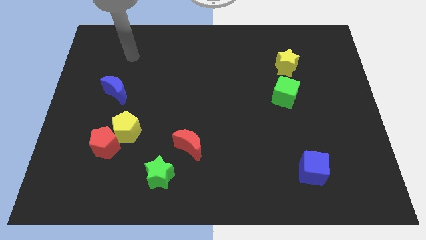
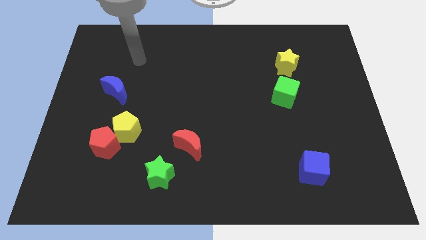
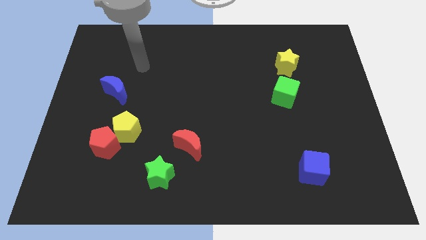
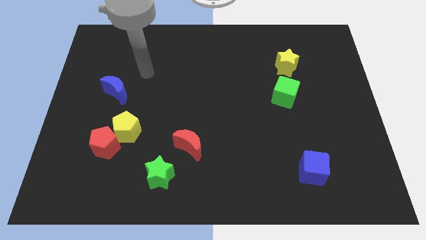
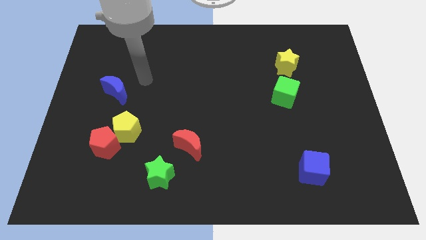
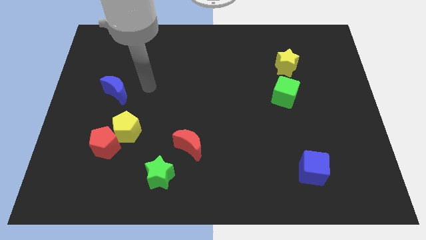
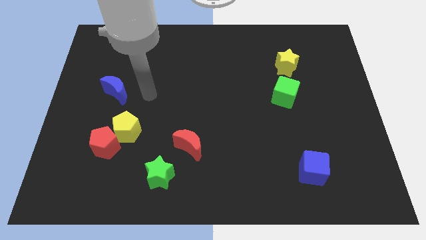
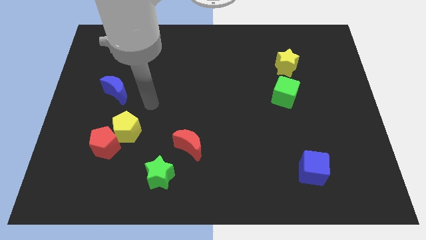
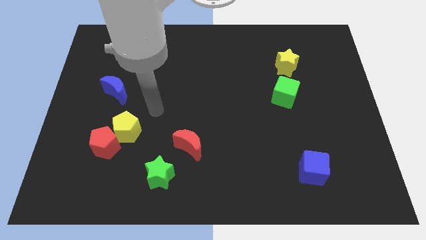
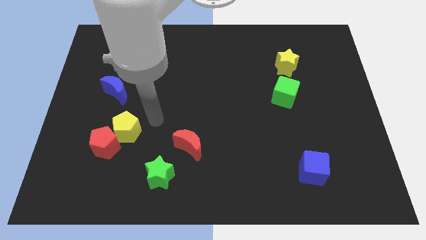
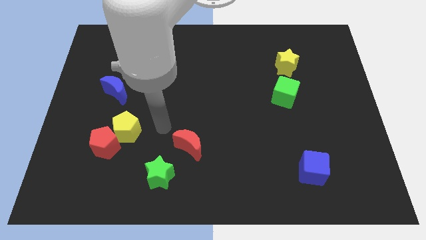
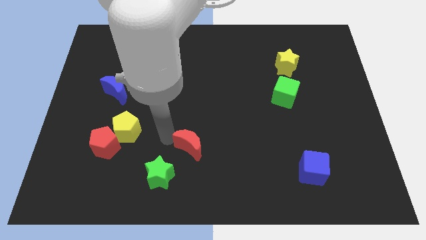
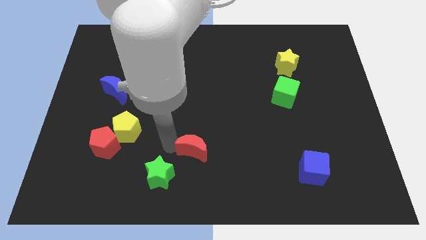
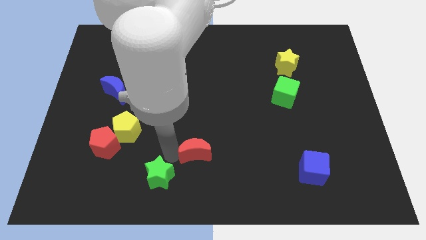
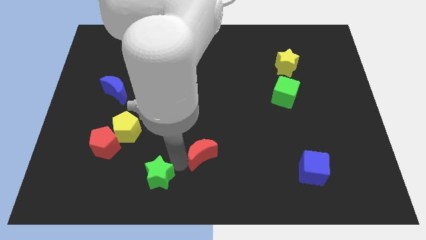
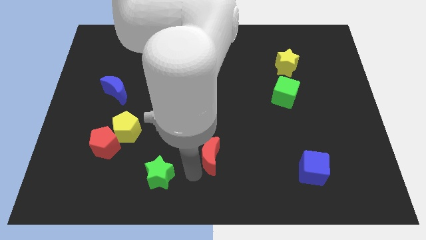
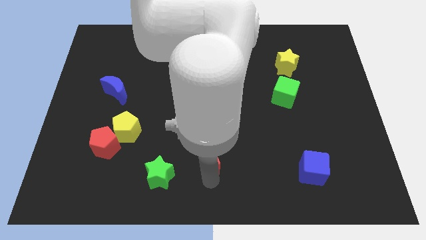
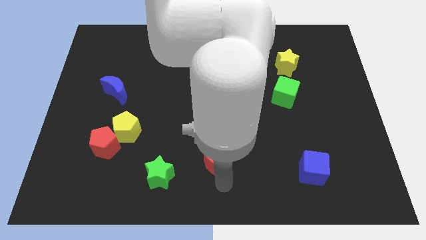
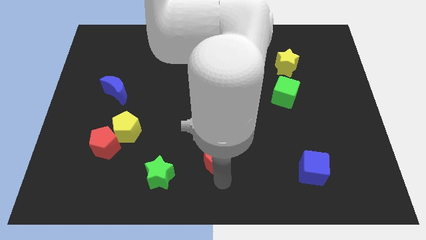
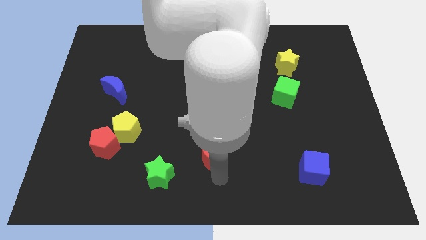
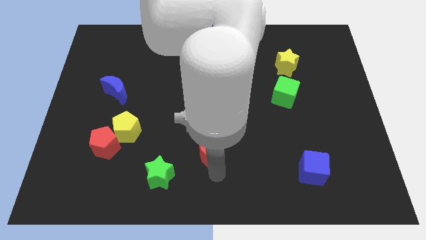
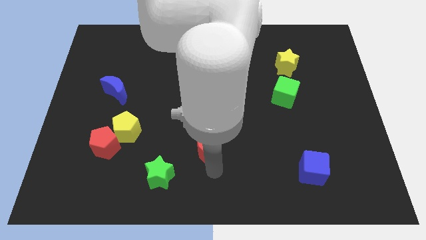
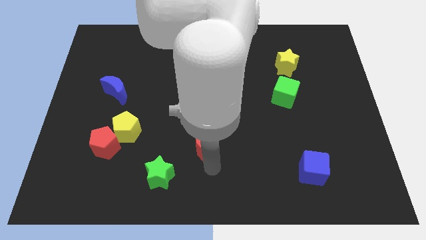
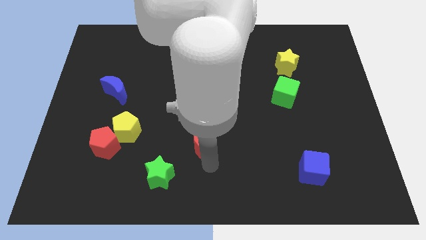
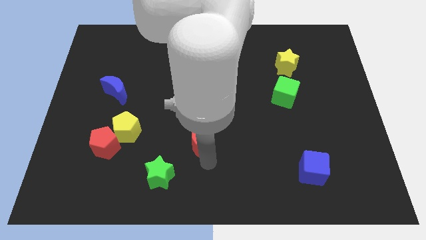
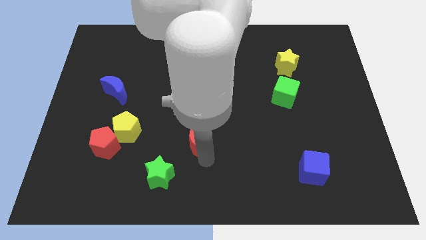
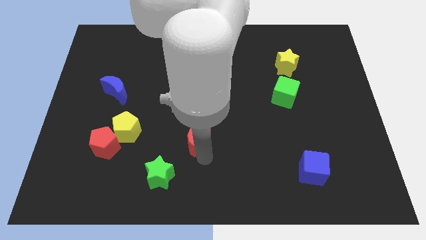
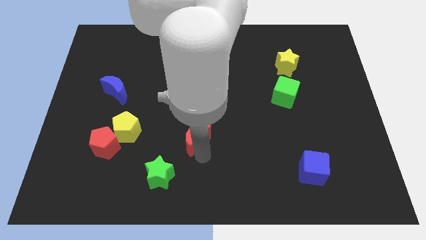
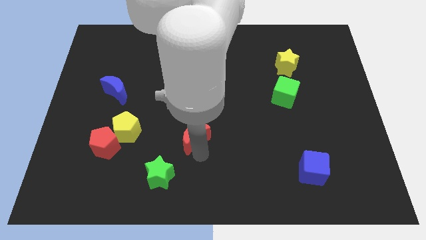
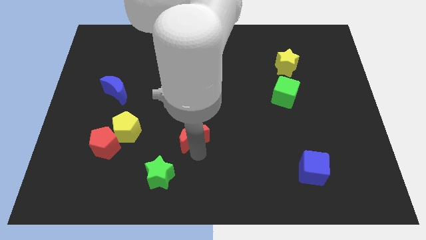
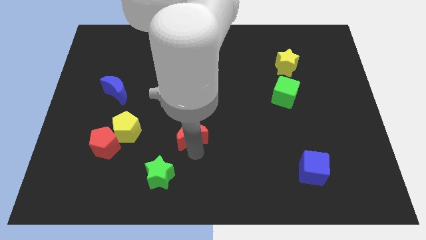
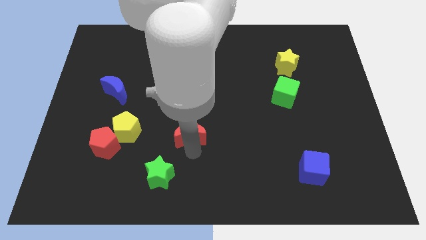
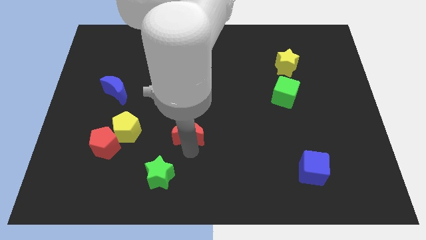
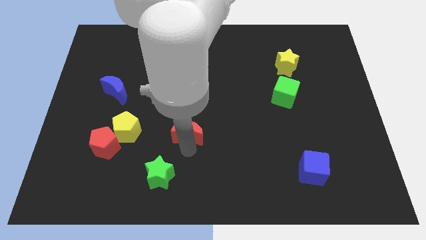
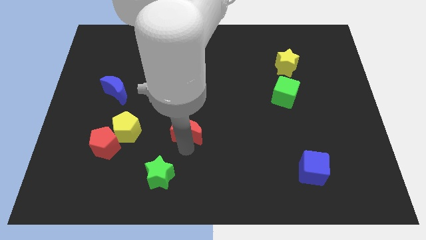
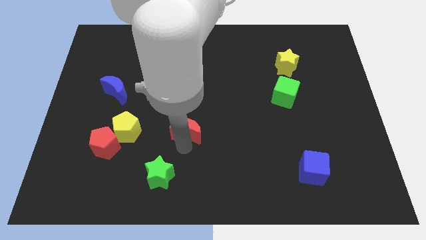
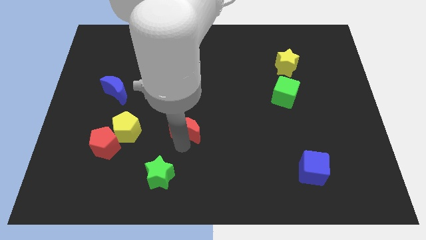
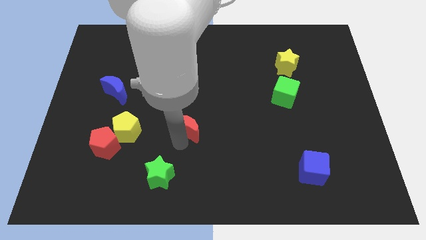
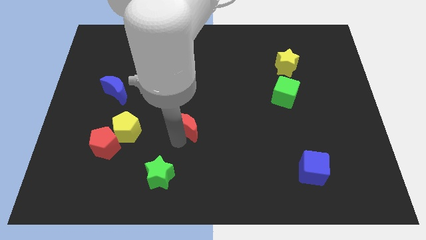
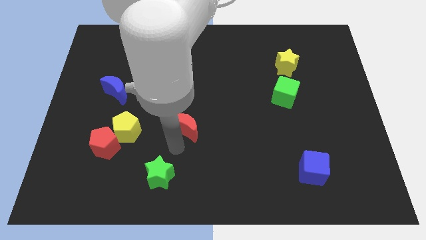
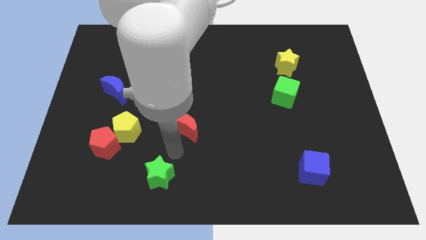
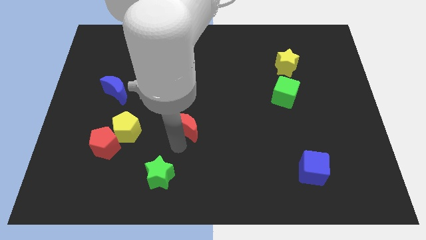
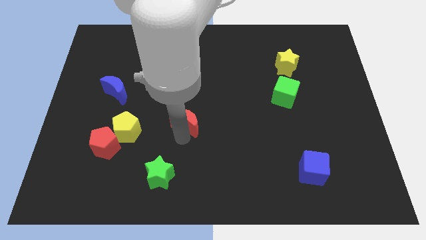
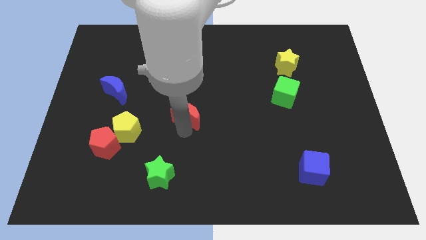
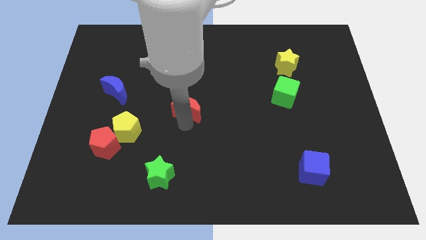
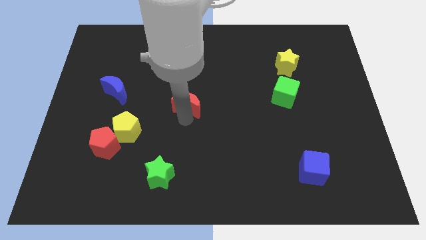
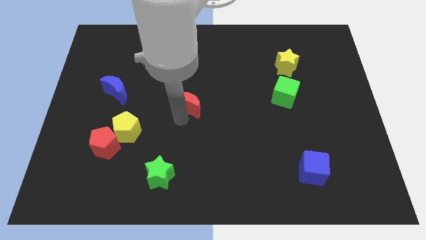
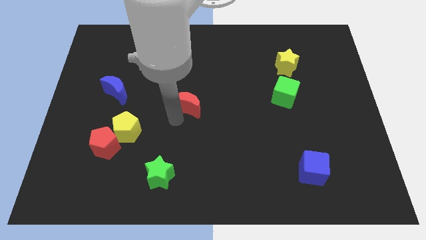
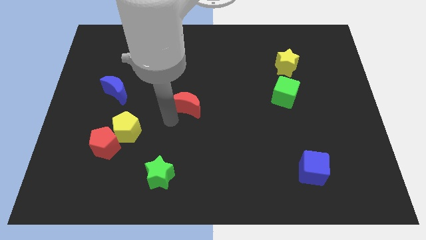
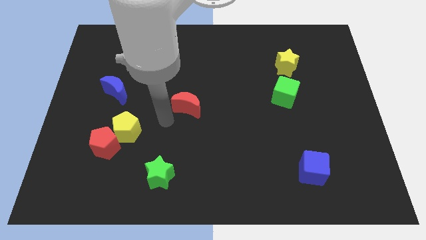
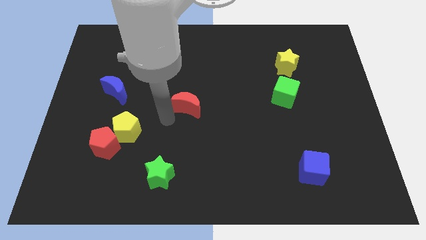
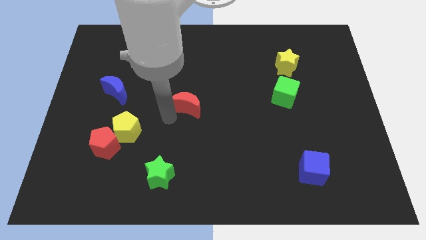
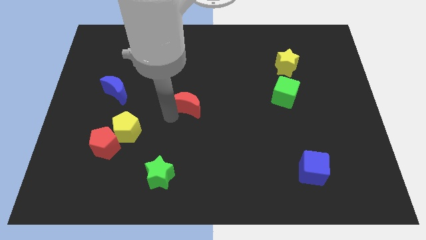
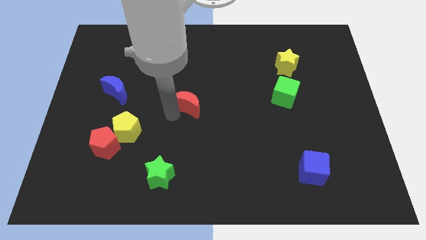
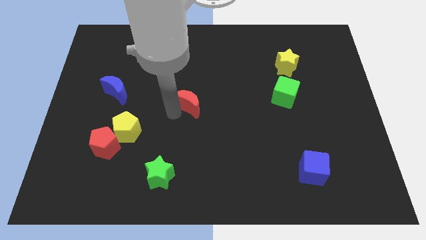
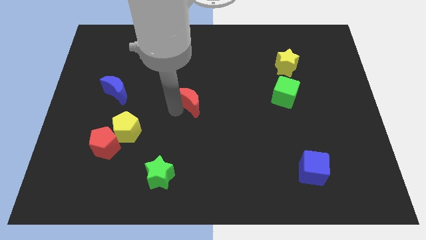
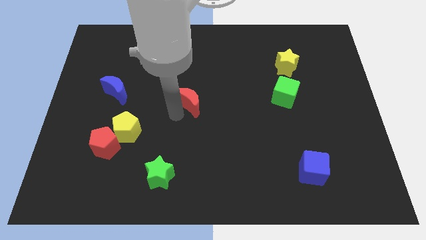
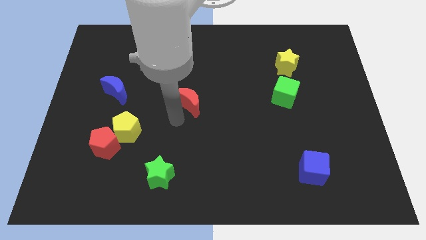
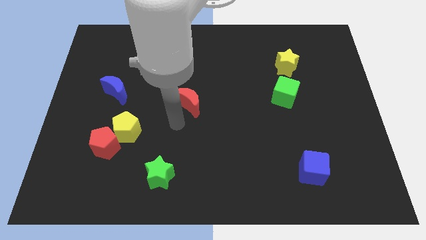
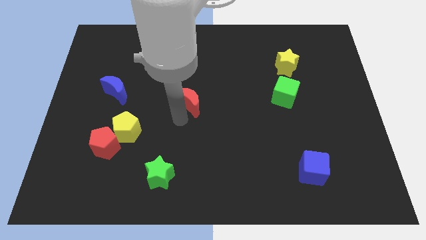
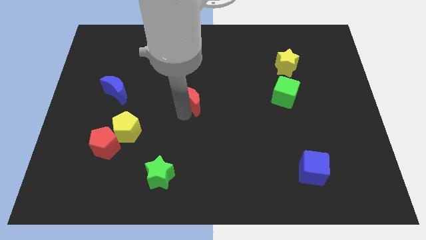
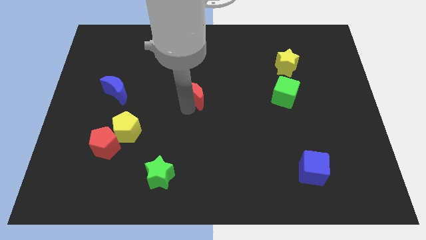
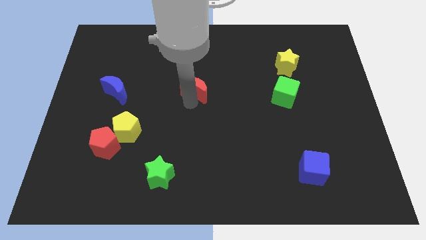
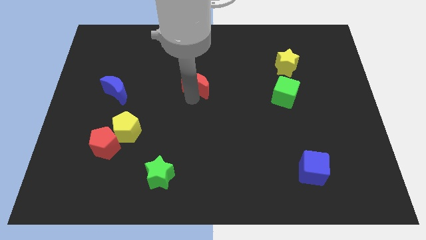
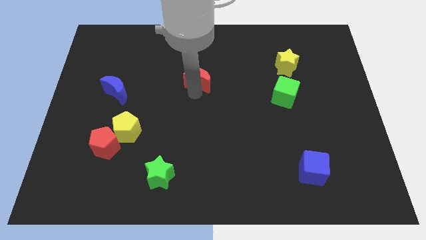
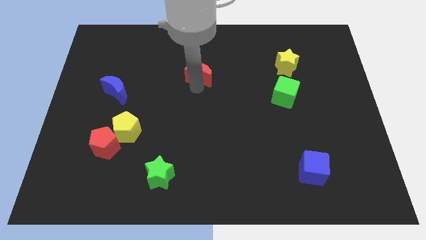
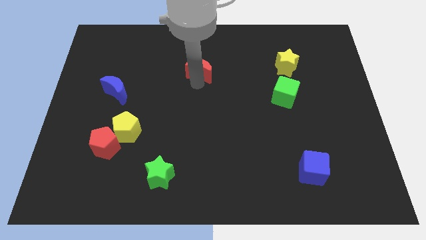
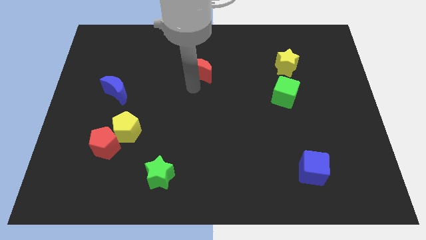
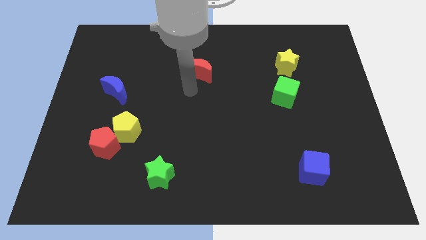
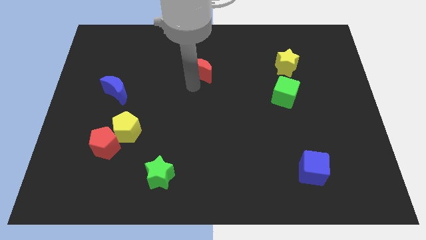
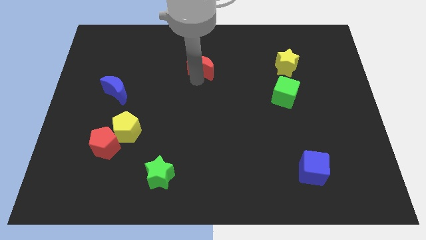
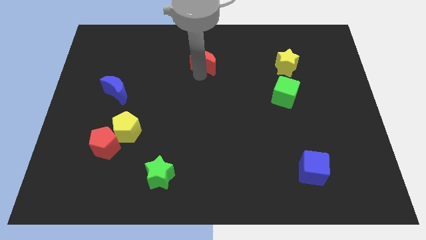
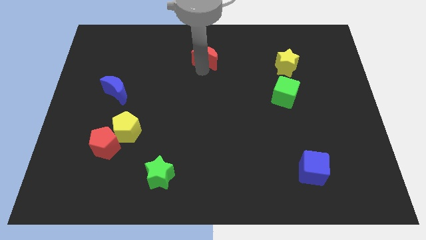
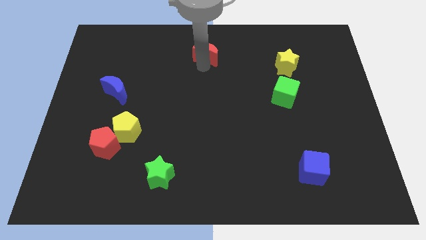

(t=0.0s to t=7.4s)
move the red moon to the top side
